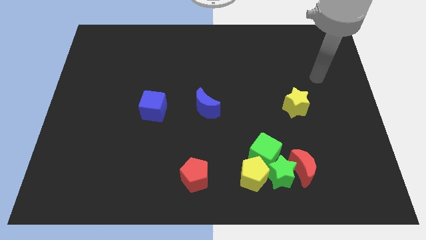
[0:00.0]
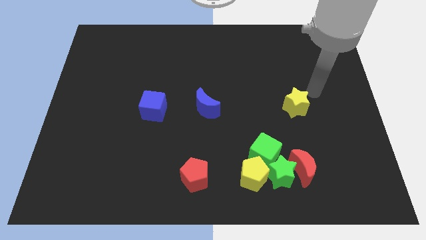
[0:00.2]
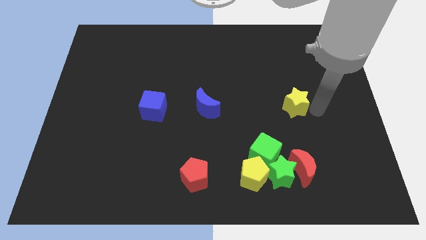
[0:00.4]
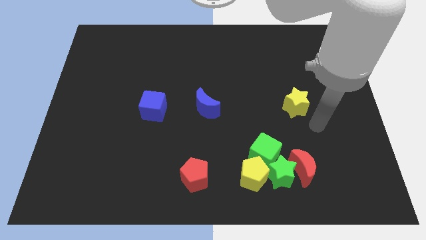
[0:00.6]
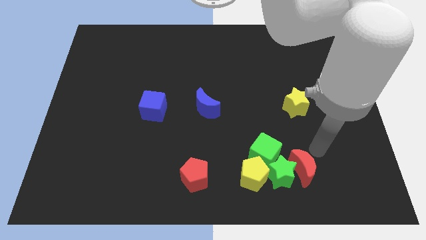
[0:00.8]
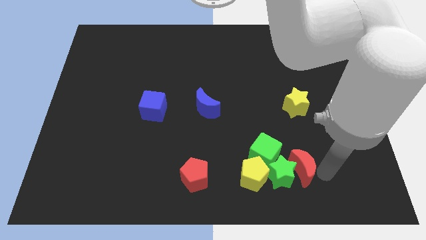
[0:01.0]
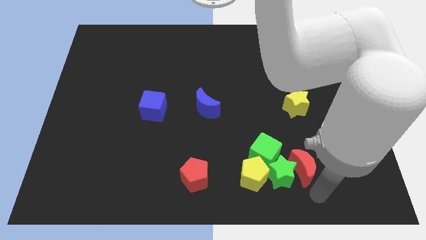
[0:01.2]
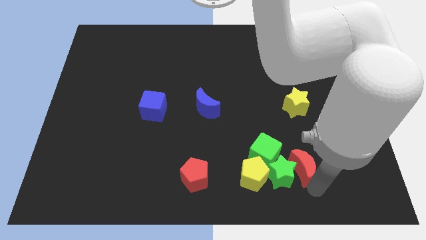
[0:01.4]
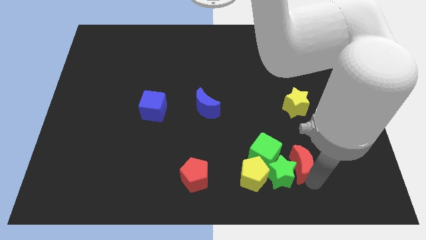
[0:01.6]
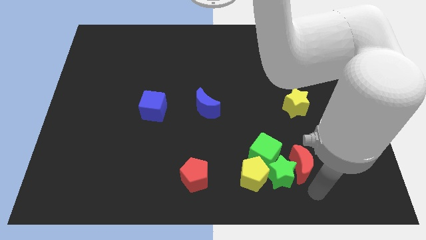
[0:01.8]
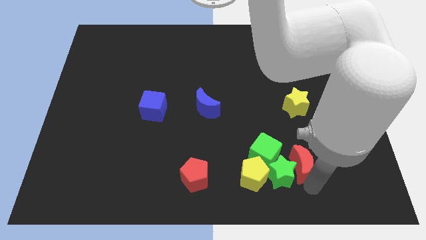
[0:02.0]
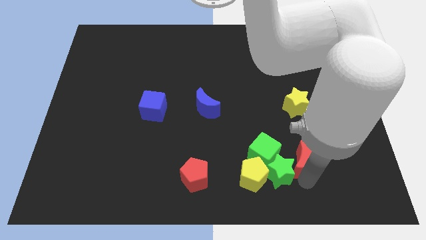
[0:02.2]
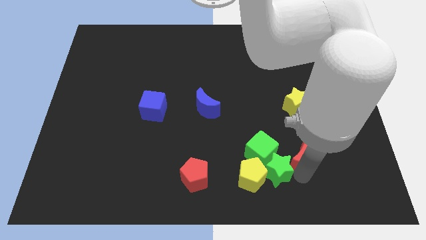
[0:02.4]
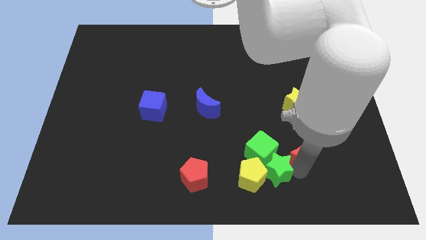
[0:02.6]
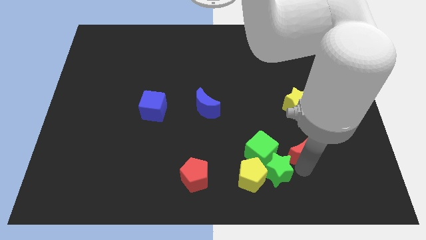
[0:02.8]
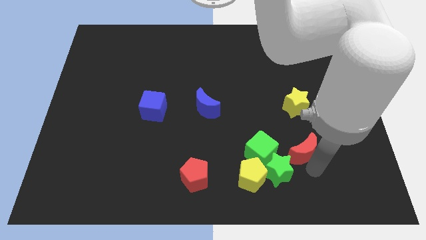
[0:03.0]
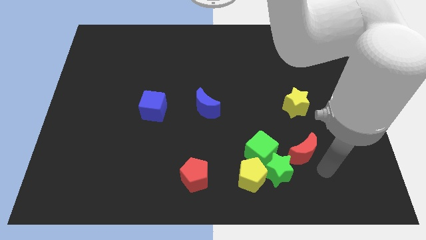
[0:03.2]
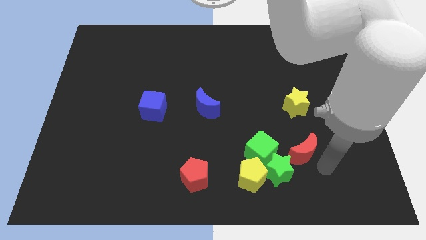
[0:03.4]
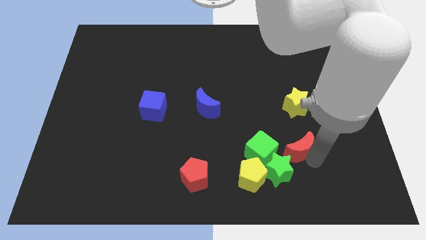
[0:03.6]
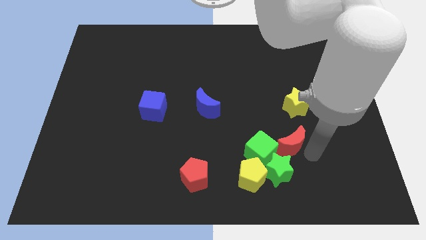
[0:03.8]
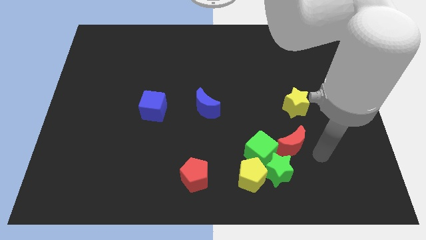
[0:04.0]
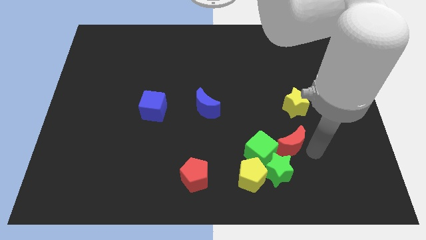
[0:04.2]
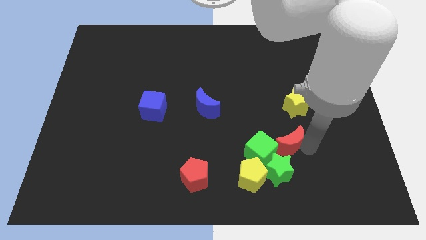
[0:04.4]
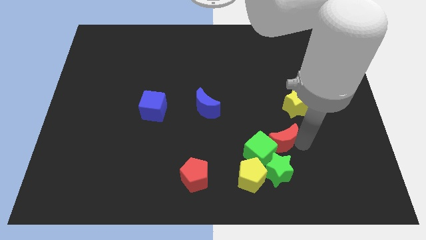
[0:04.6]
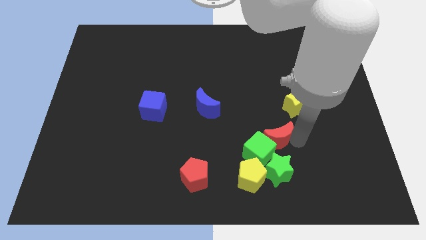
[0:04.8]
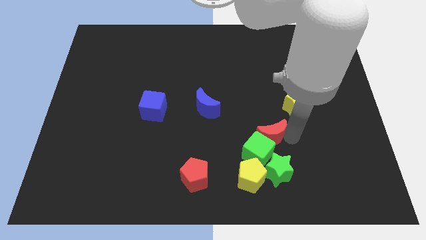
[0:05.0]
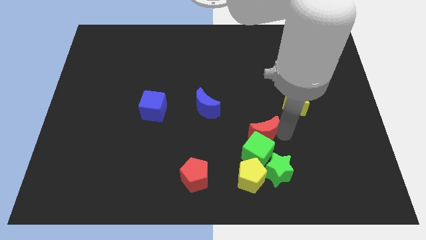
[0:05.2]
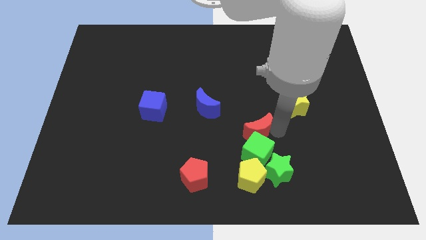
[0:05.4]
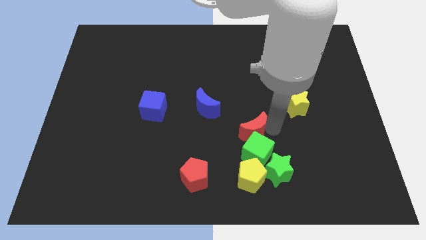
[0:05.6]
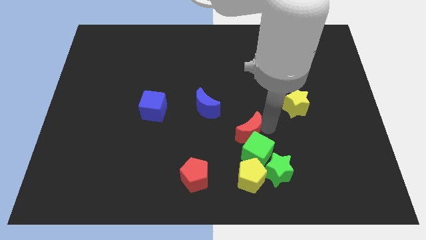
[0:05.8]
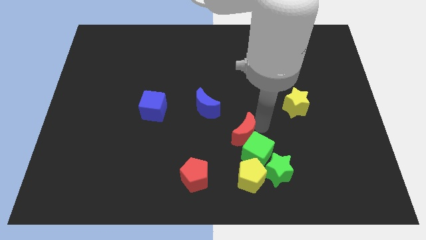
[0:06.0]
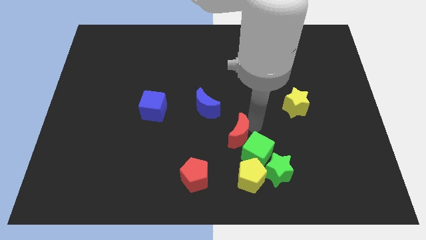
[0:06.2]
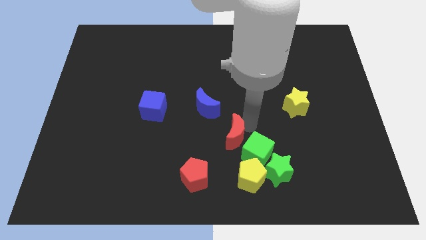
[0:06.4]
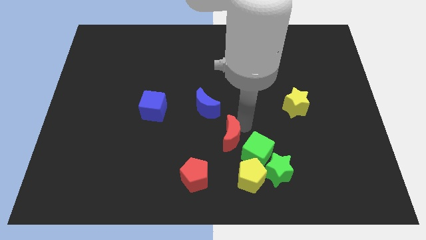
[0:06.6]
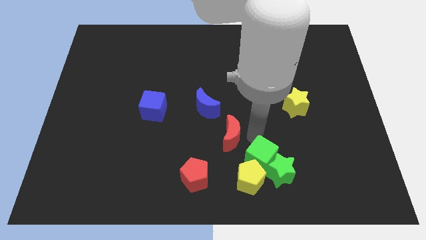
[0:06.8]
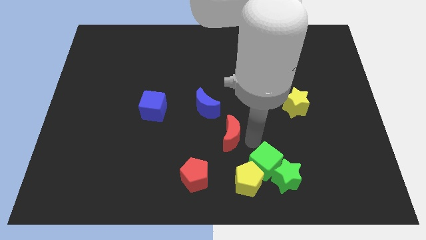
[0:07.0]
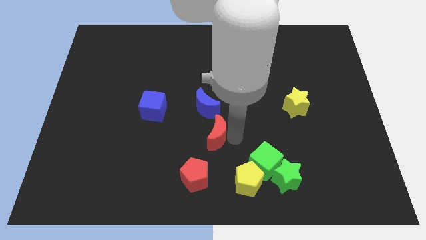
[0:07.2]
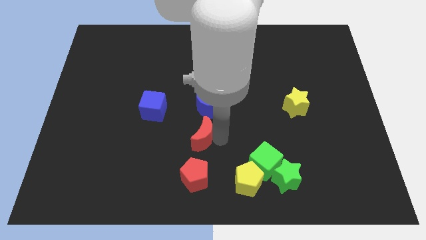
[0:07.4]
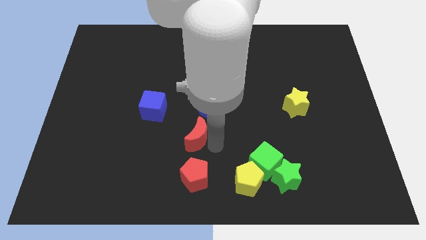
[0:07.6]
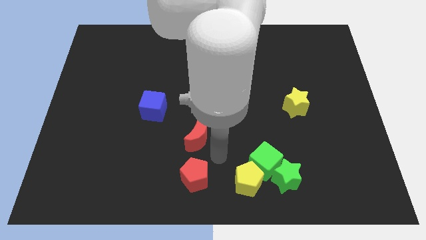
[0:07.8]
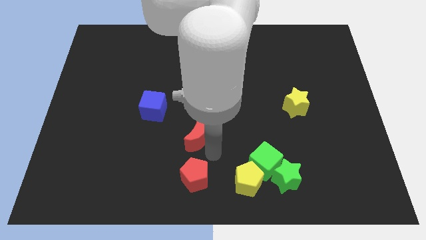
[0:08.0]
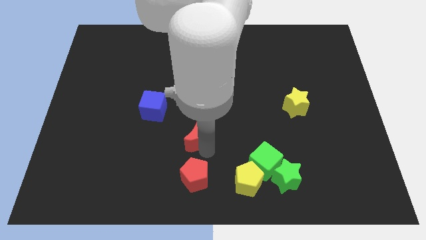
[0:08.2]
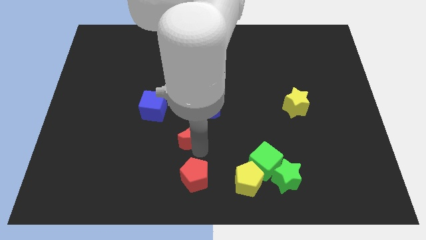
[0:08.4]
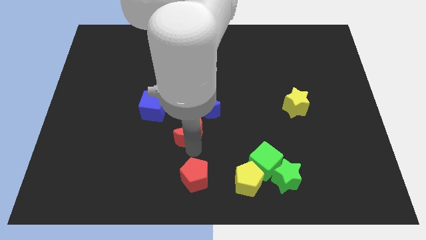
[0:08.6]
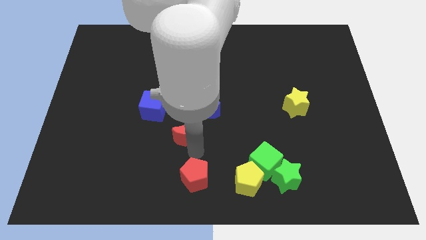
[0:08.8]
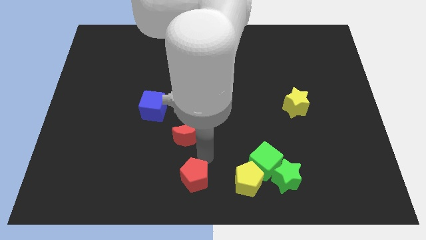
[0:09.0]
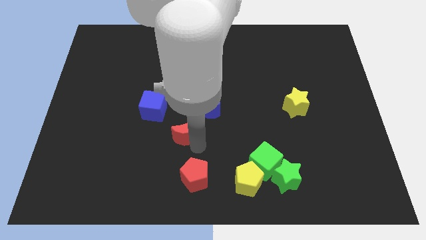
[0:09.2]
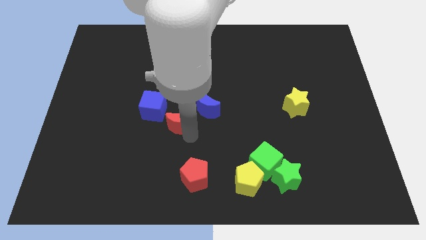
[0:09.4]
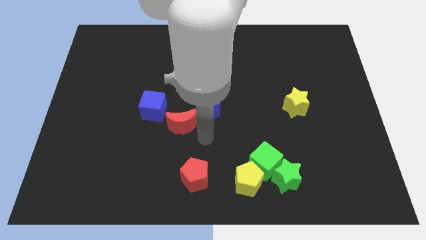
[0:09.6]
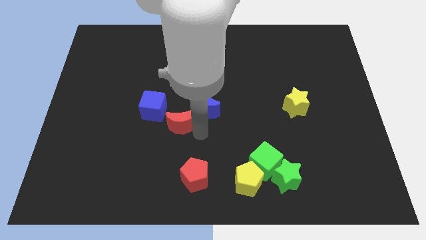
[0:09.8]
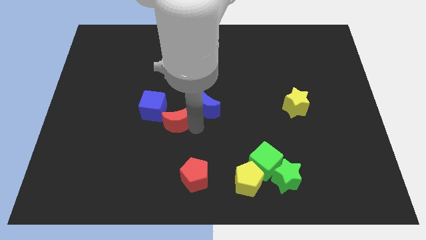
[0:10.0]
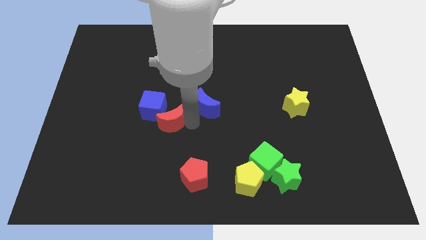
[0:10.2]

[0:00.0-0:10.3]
move the red moon towards the blue cube

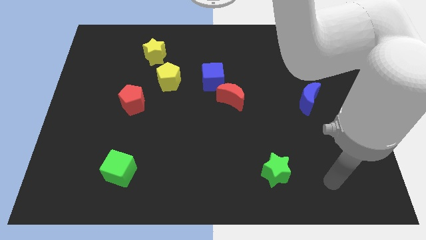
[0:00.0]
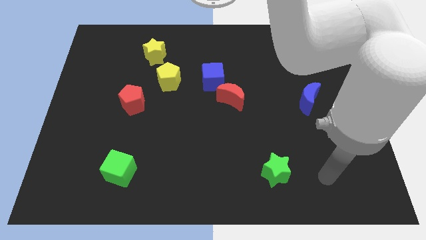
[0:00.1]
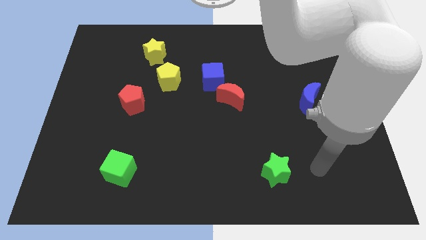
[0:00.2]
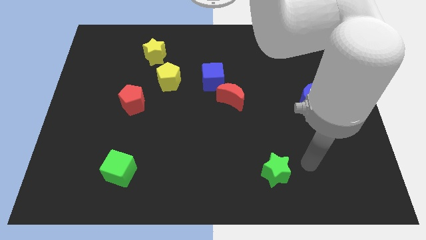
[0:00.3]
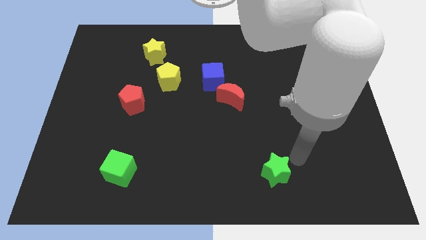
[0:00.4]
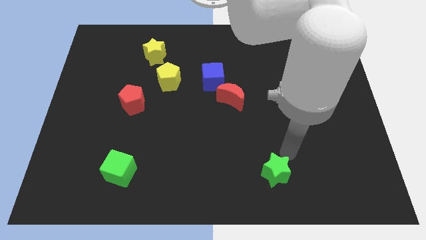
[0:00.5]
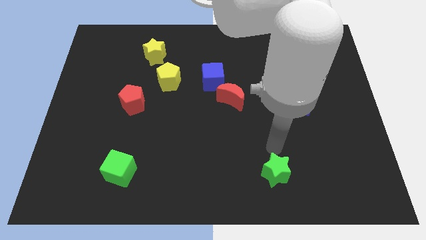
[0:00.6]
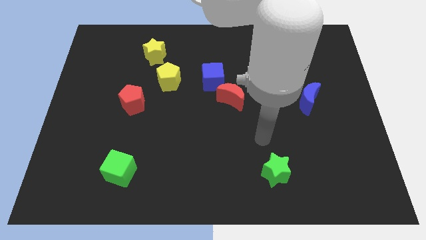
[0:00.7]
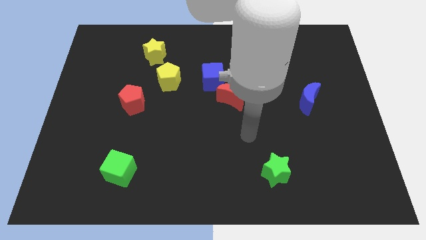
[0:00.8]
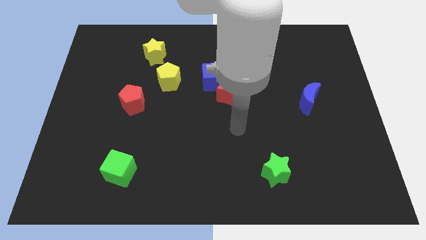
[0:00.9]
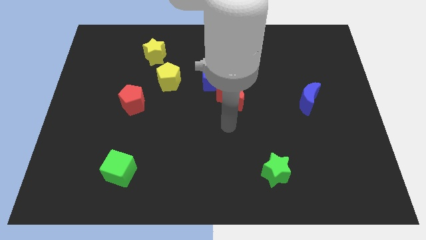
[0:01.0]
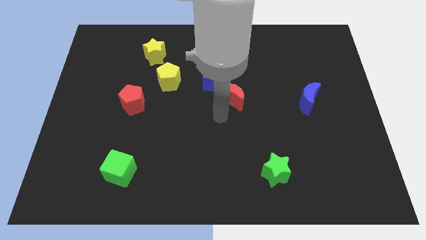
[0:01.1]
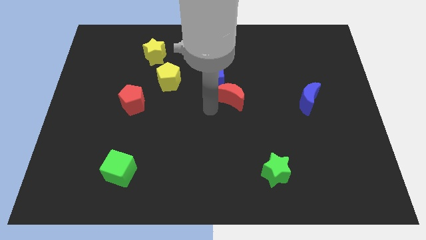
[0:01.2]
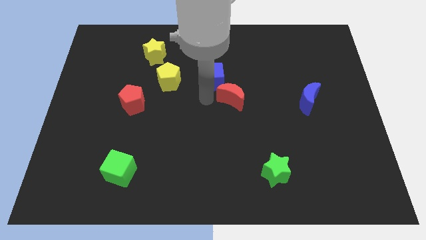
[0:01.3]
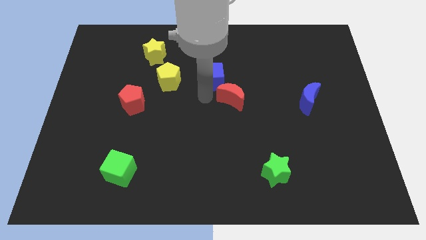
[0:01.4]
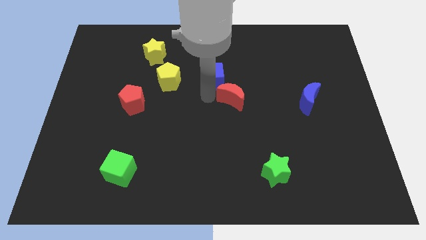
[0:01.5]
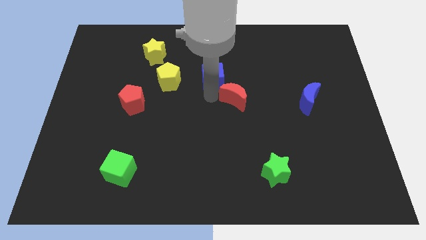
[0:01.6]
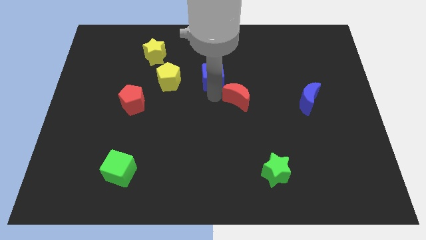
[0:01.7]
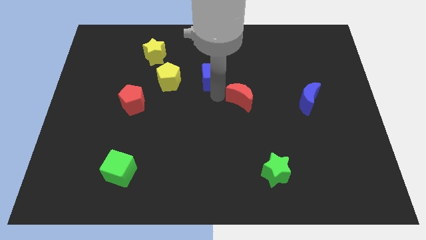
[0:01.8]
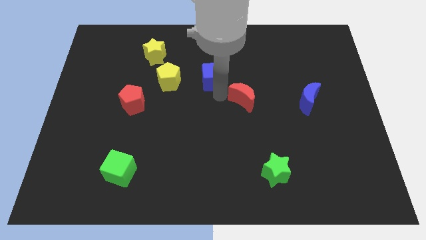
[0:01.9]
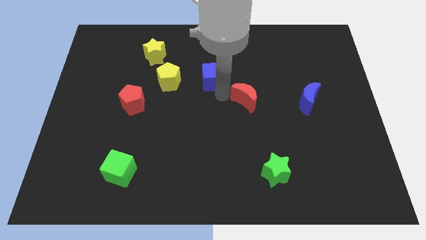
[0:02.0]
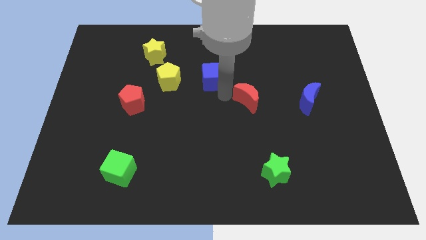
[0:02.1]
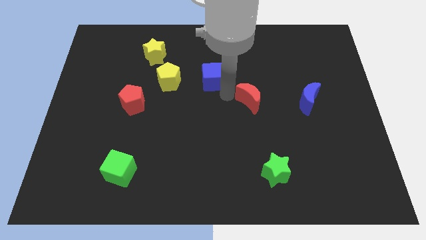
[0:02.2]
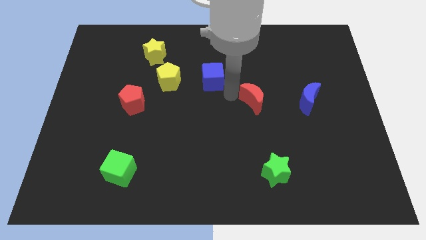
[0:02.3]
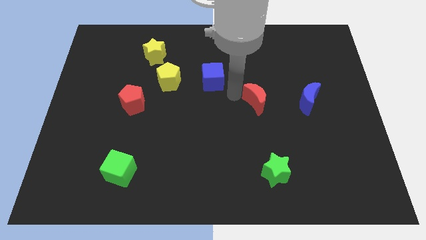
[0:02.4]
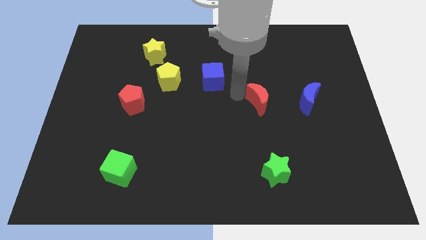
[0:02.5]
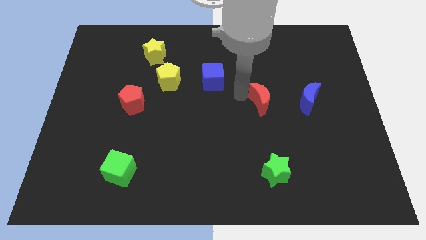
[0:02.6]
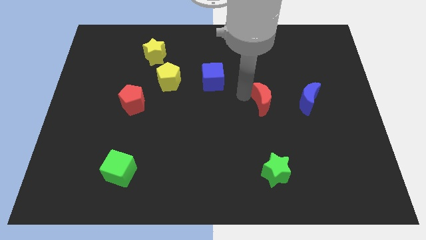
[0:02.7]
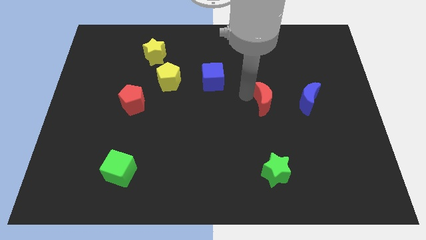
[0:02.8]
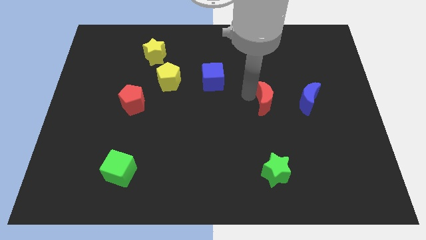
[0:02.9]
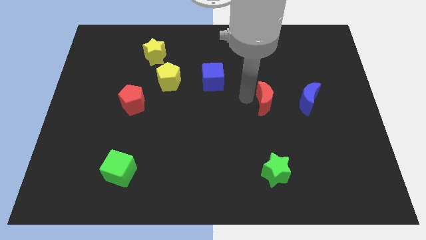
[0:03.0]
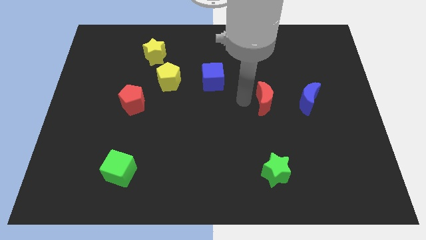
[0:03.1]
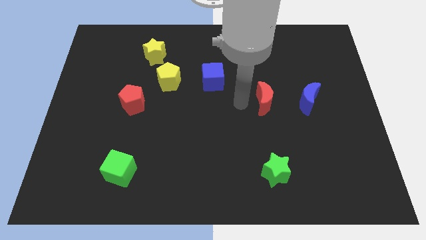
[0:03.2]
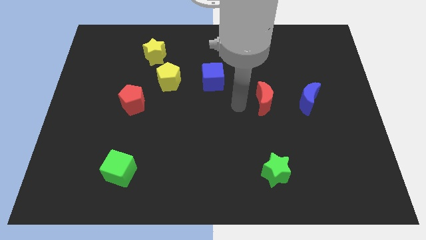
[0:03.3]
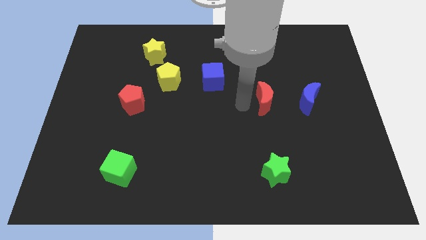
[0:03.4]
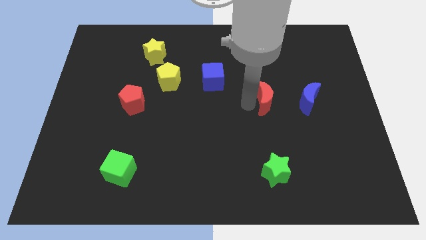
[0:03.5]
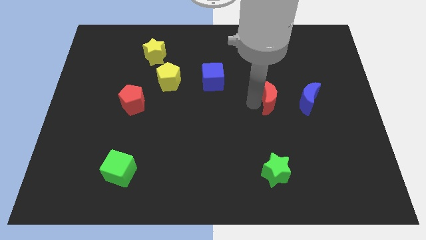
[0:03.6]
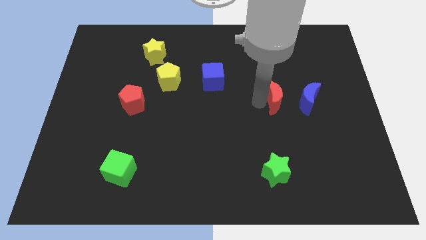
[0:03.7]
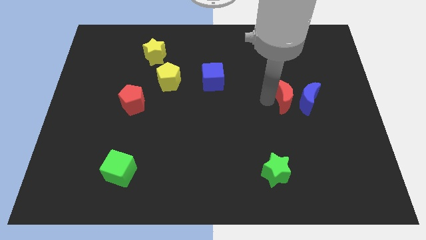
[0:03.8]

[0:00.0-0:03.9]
move the red moon close to the blue moon
